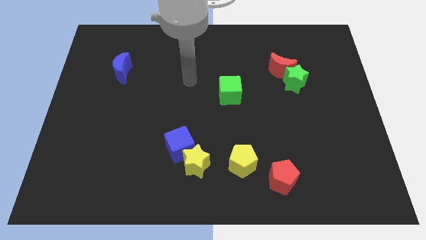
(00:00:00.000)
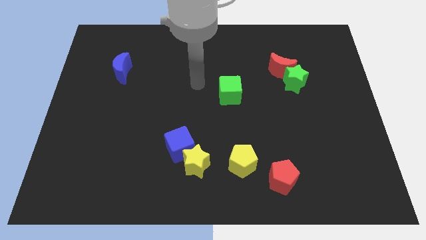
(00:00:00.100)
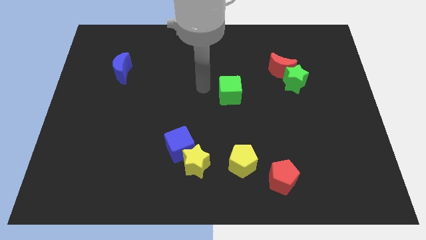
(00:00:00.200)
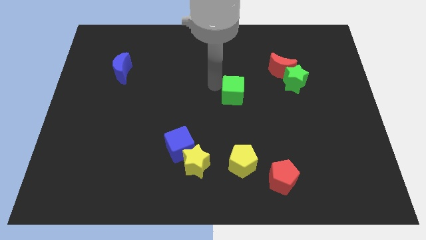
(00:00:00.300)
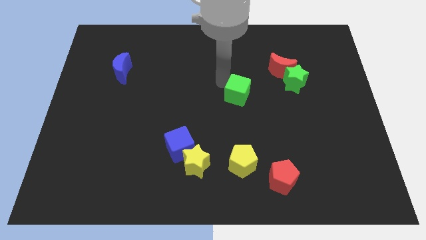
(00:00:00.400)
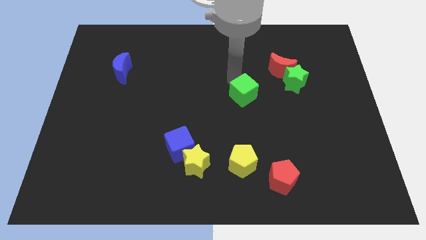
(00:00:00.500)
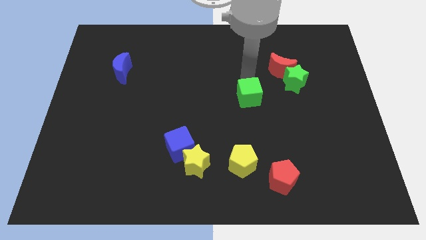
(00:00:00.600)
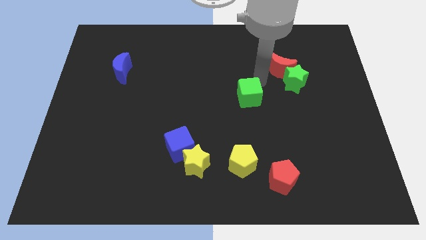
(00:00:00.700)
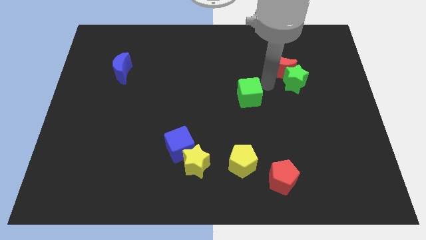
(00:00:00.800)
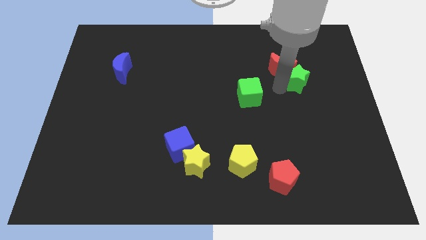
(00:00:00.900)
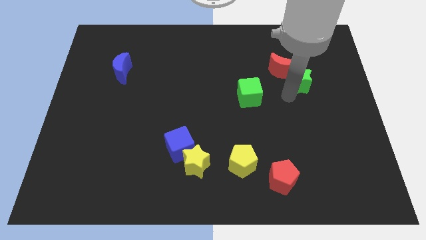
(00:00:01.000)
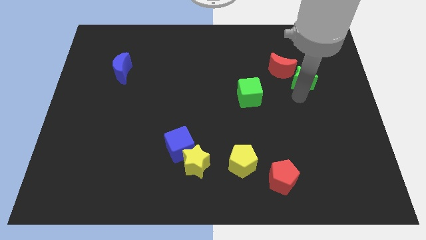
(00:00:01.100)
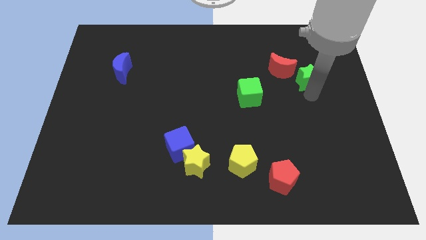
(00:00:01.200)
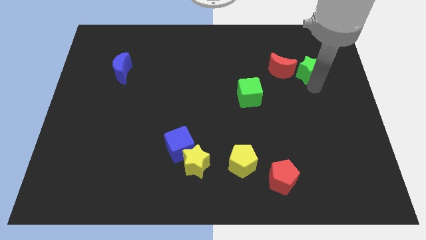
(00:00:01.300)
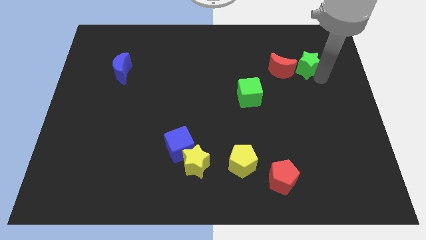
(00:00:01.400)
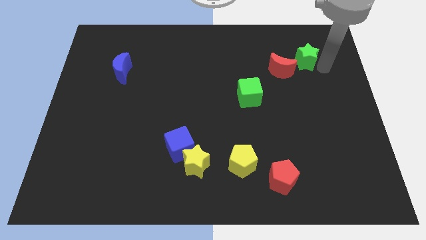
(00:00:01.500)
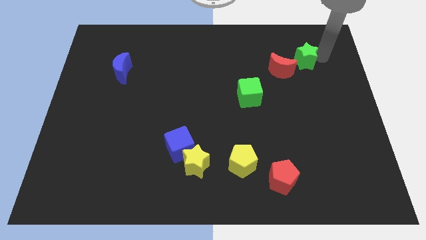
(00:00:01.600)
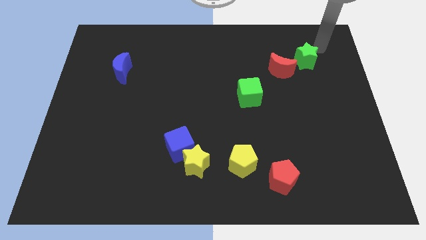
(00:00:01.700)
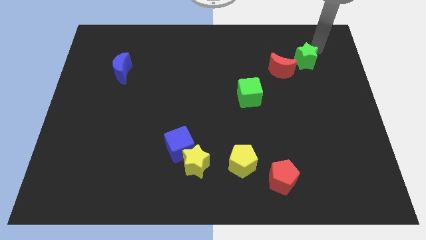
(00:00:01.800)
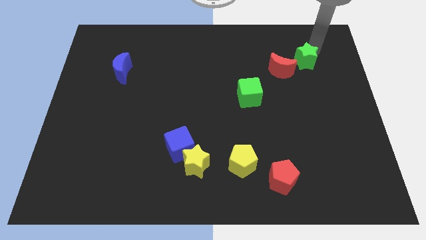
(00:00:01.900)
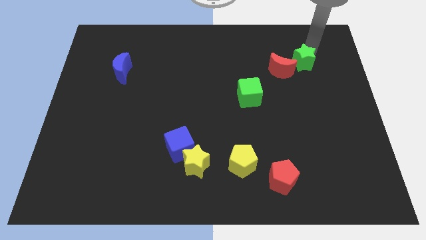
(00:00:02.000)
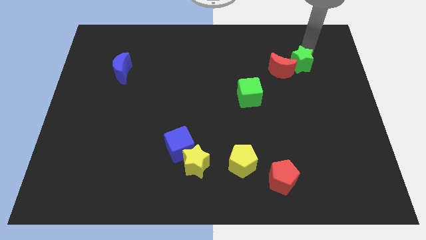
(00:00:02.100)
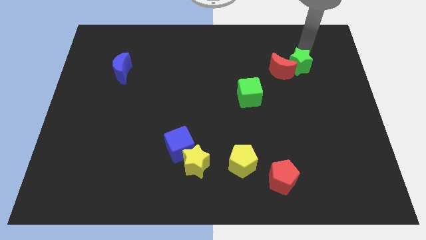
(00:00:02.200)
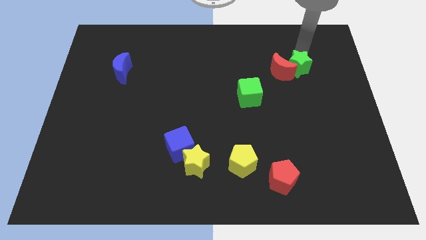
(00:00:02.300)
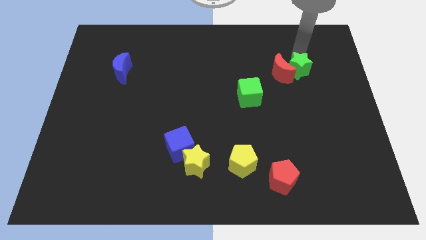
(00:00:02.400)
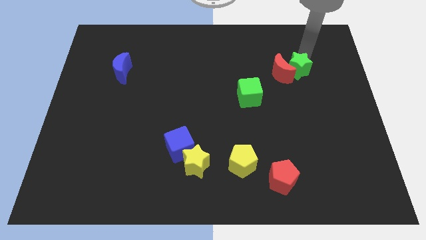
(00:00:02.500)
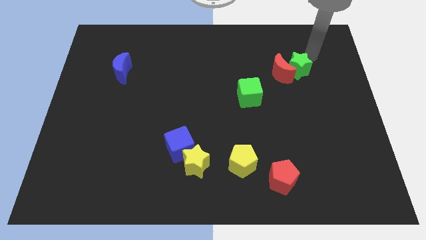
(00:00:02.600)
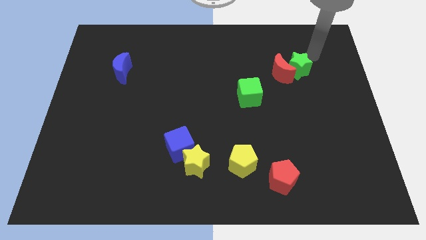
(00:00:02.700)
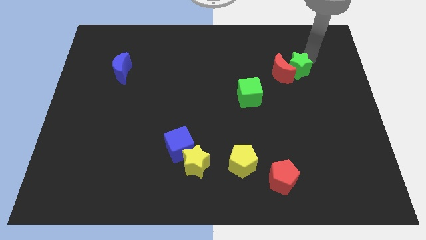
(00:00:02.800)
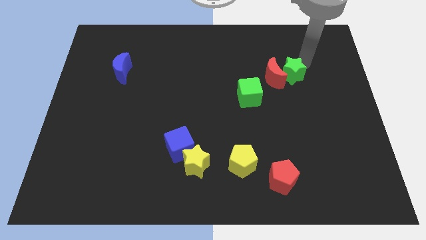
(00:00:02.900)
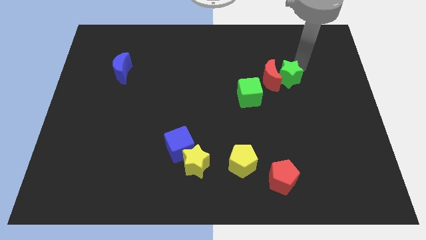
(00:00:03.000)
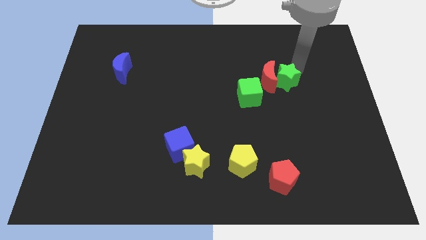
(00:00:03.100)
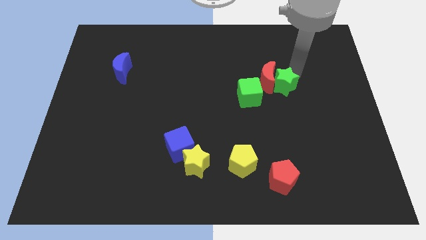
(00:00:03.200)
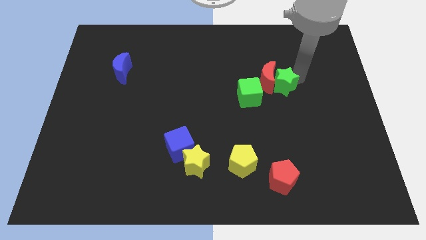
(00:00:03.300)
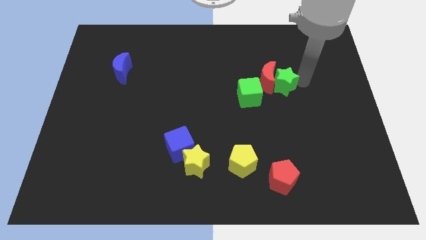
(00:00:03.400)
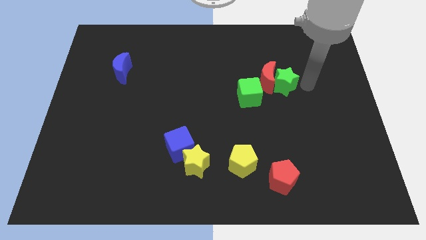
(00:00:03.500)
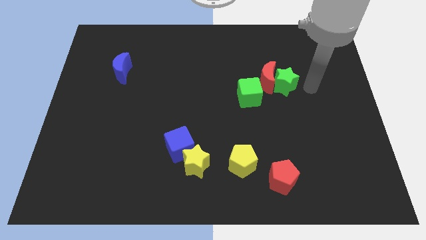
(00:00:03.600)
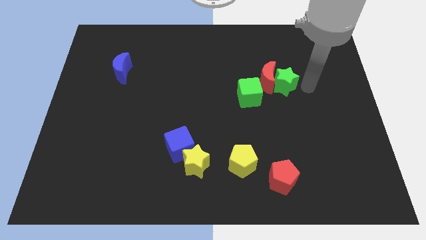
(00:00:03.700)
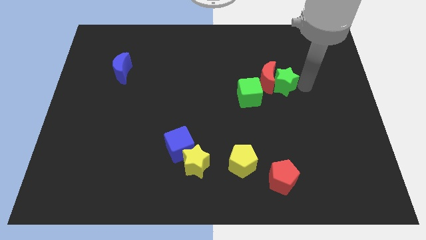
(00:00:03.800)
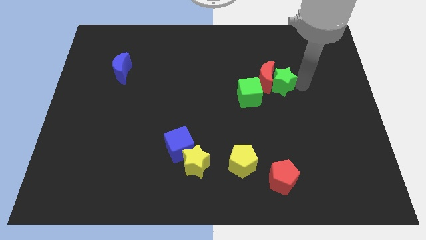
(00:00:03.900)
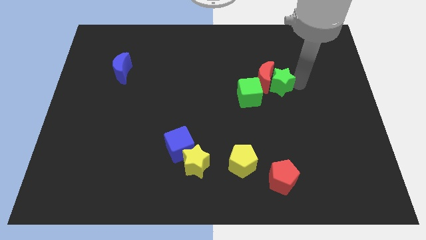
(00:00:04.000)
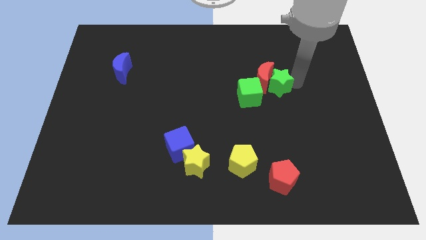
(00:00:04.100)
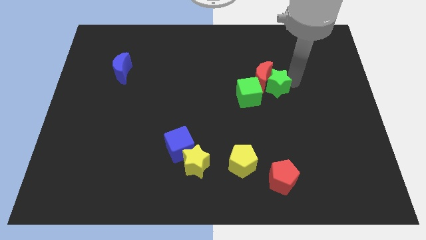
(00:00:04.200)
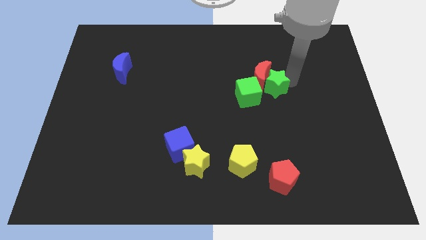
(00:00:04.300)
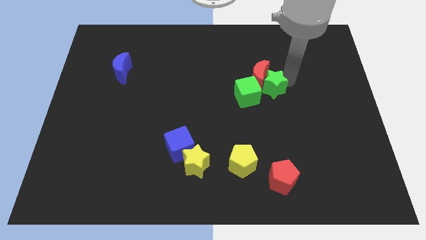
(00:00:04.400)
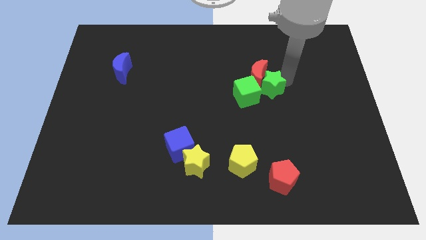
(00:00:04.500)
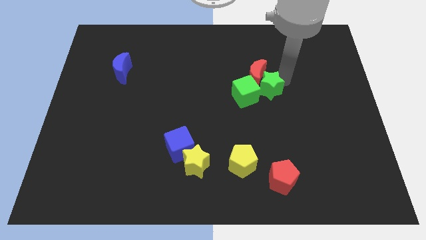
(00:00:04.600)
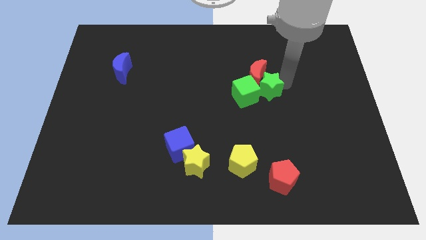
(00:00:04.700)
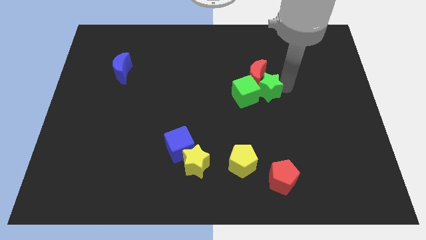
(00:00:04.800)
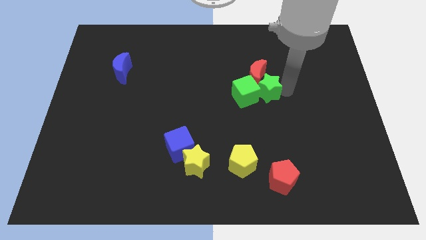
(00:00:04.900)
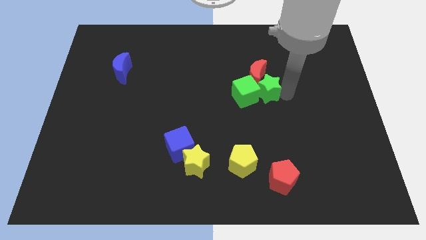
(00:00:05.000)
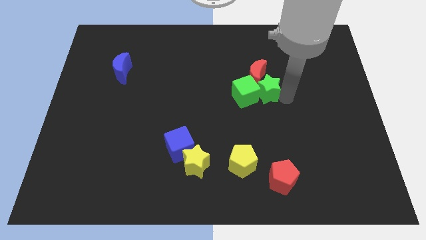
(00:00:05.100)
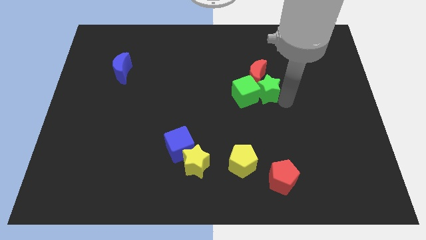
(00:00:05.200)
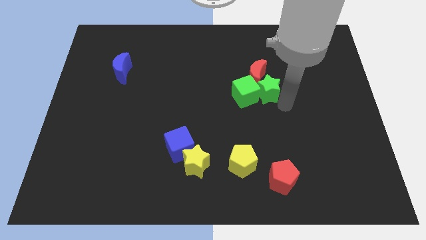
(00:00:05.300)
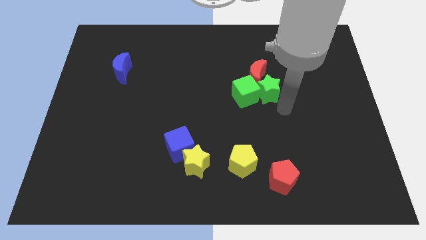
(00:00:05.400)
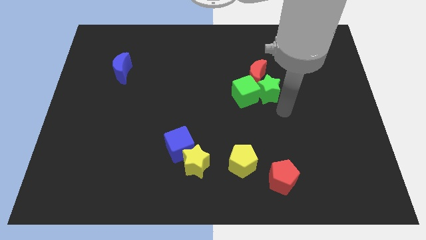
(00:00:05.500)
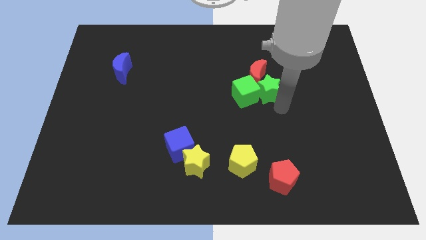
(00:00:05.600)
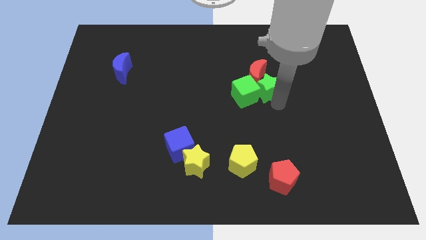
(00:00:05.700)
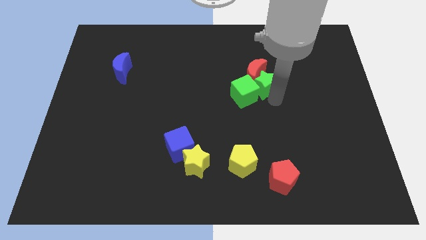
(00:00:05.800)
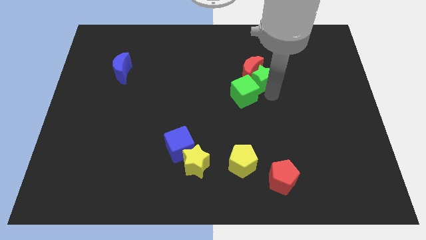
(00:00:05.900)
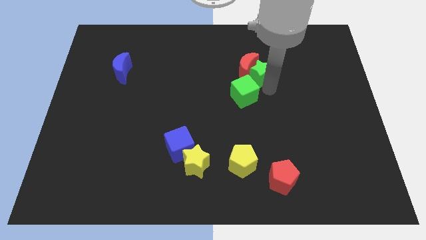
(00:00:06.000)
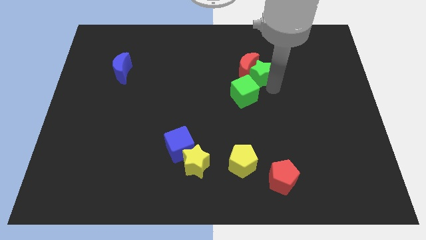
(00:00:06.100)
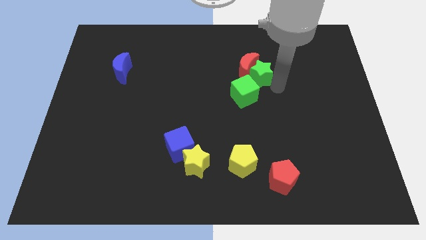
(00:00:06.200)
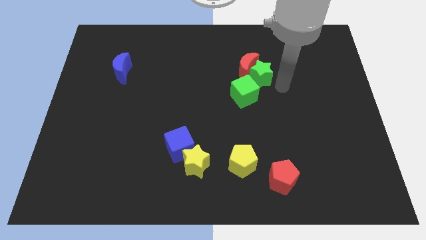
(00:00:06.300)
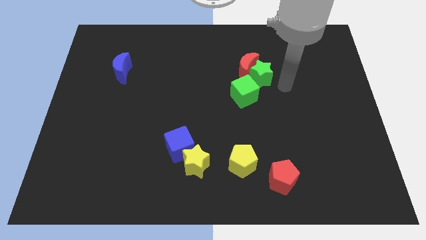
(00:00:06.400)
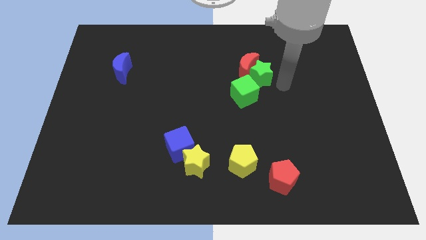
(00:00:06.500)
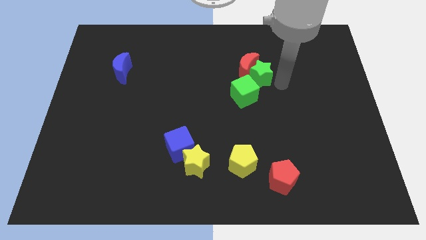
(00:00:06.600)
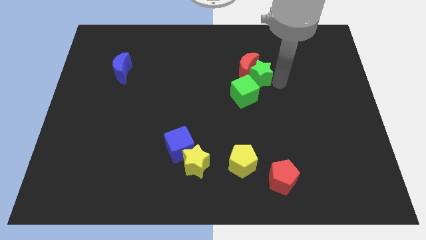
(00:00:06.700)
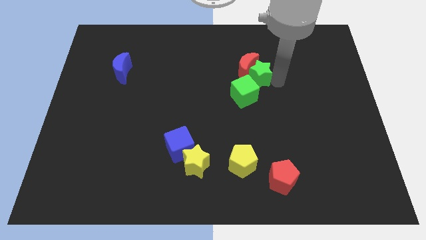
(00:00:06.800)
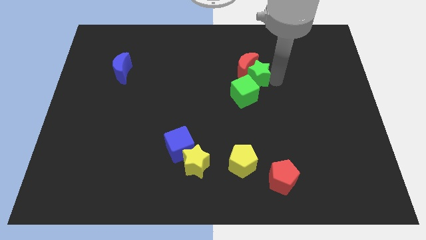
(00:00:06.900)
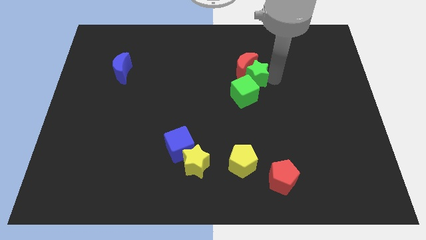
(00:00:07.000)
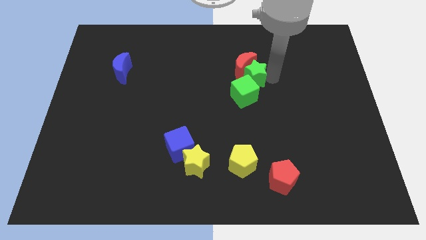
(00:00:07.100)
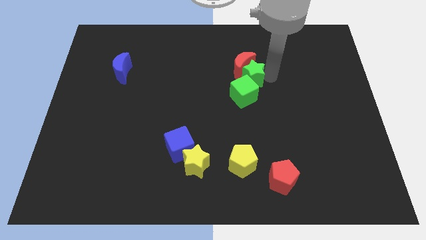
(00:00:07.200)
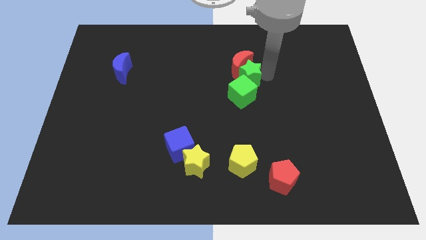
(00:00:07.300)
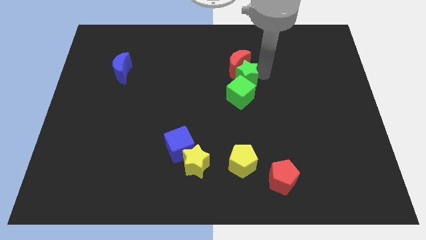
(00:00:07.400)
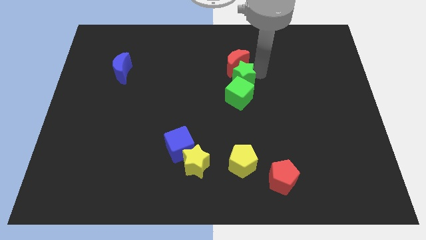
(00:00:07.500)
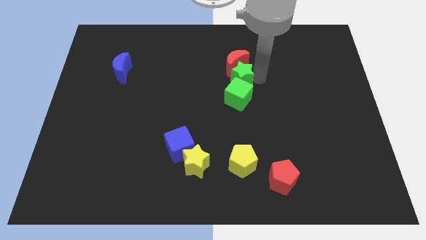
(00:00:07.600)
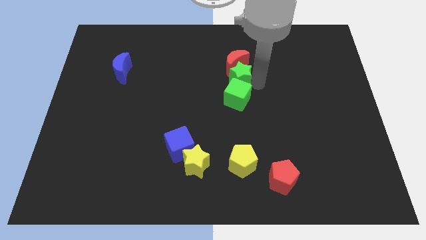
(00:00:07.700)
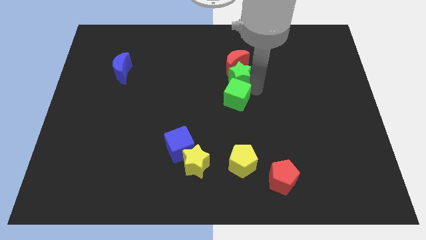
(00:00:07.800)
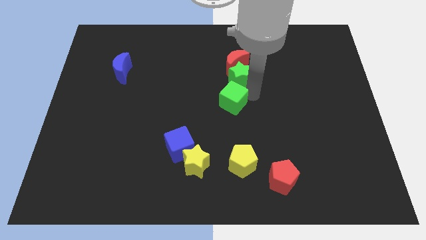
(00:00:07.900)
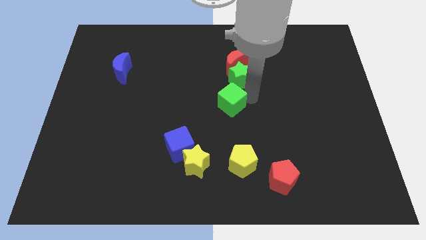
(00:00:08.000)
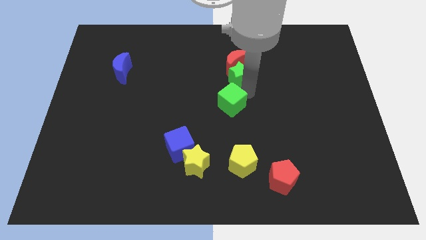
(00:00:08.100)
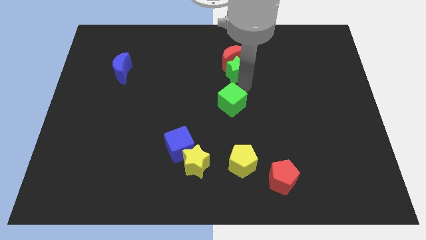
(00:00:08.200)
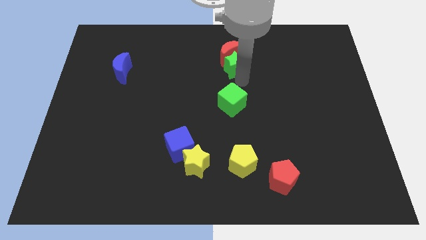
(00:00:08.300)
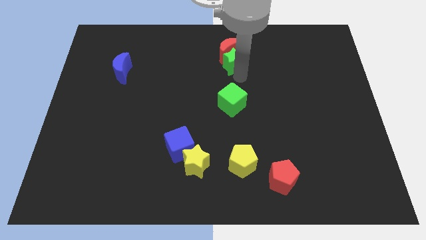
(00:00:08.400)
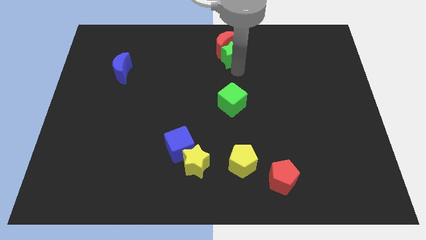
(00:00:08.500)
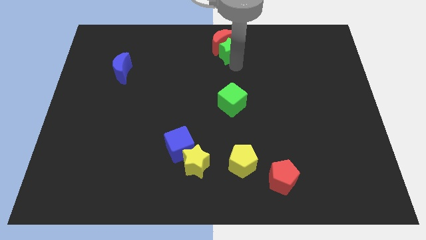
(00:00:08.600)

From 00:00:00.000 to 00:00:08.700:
slide the green star to the top side
